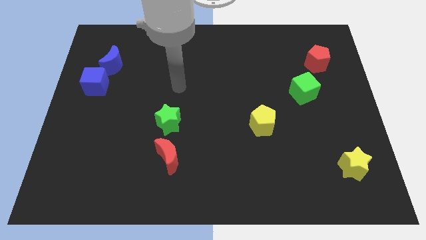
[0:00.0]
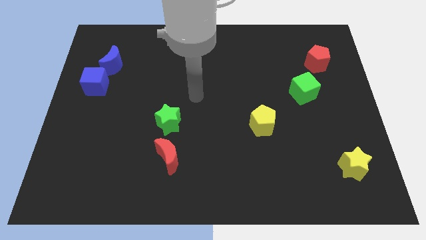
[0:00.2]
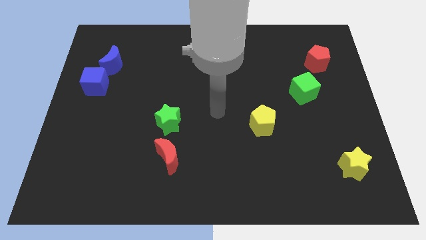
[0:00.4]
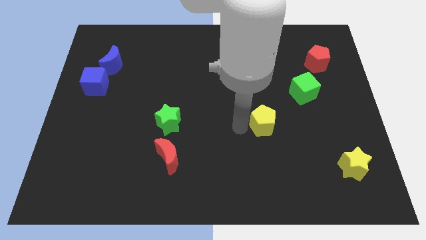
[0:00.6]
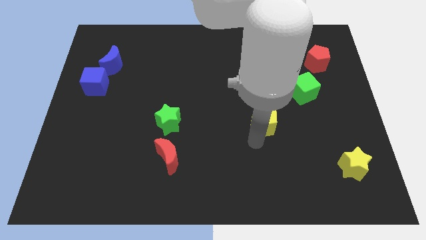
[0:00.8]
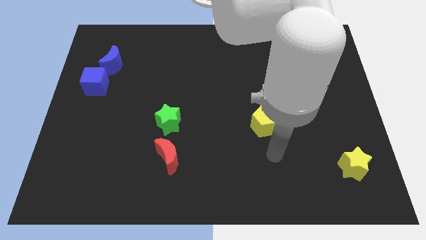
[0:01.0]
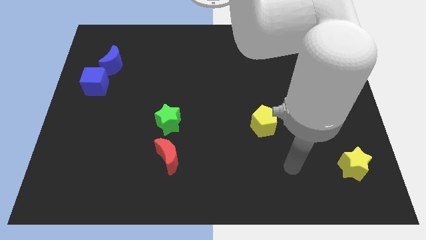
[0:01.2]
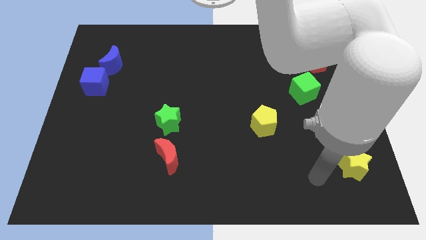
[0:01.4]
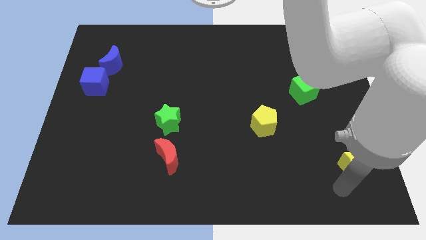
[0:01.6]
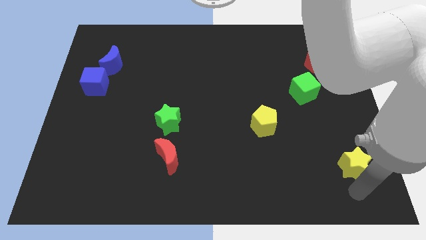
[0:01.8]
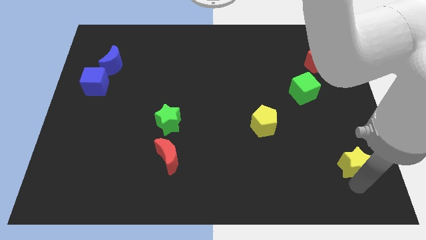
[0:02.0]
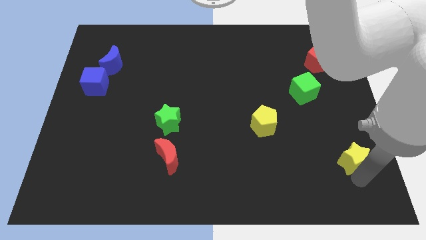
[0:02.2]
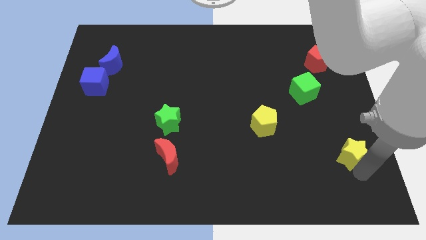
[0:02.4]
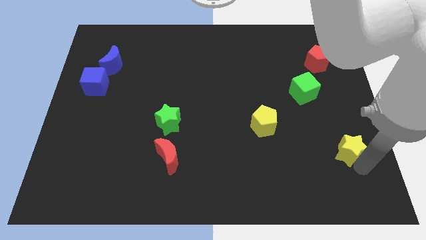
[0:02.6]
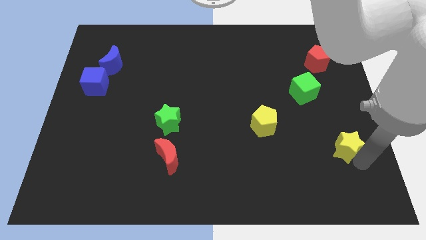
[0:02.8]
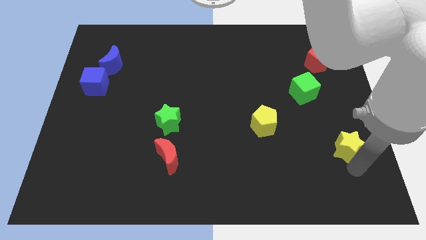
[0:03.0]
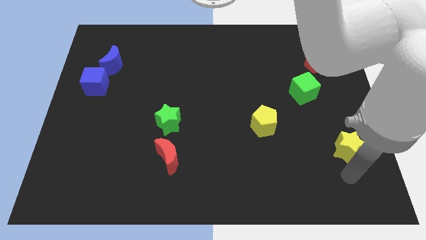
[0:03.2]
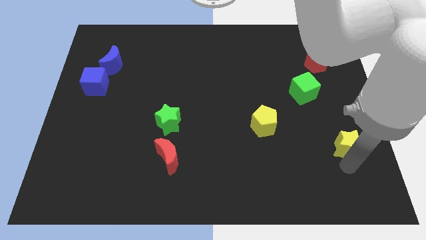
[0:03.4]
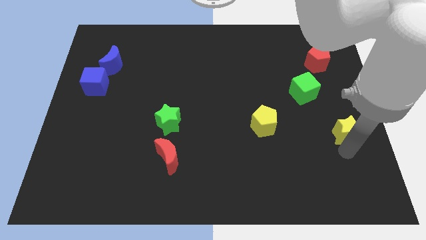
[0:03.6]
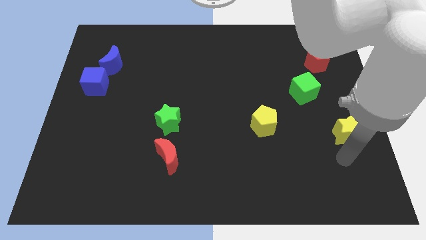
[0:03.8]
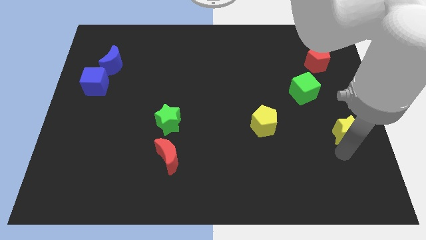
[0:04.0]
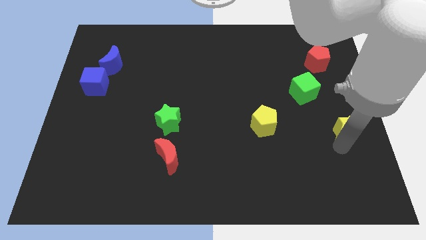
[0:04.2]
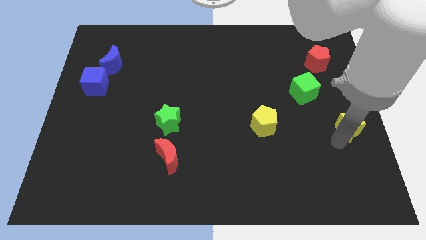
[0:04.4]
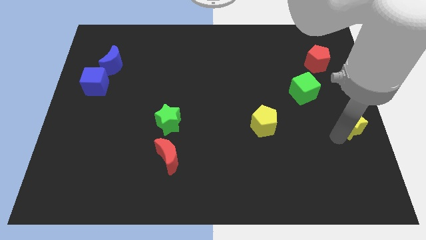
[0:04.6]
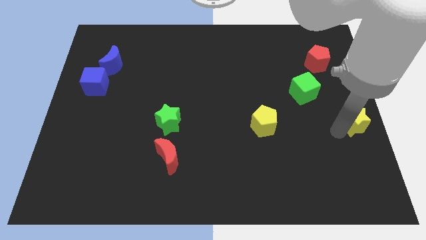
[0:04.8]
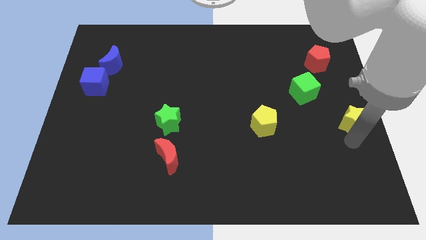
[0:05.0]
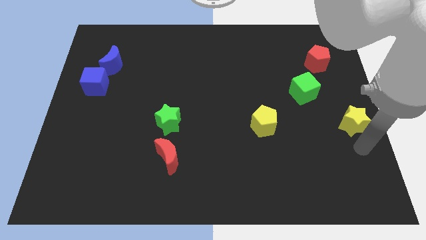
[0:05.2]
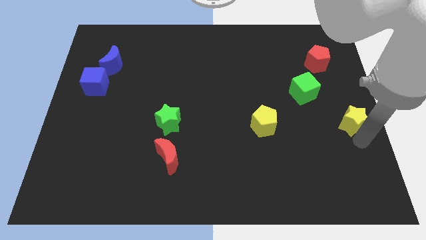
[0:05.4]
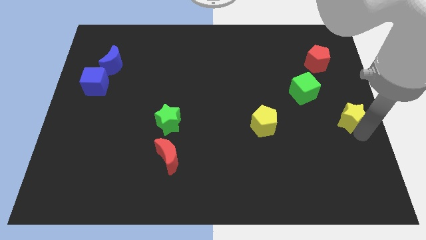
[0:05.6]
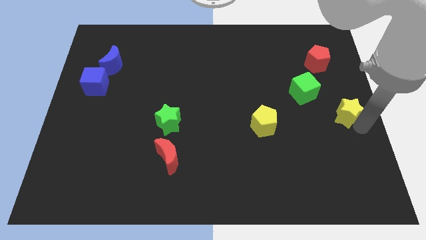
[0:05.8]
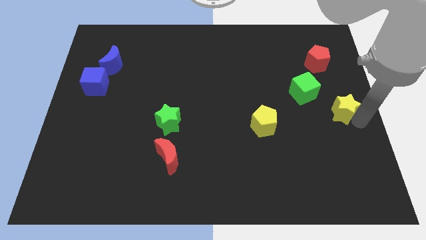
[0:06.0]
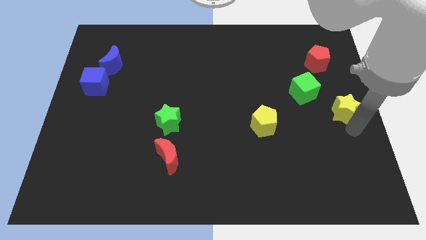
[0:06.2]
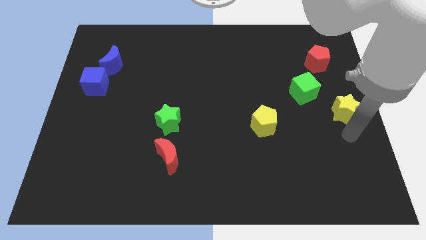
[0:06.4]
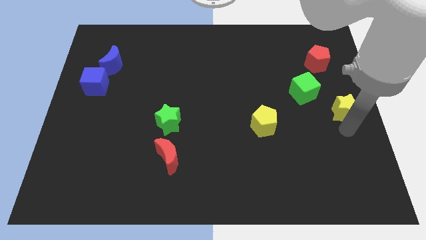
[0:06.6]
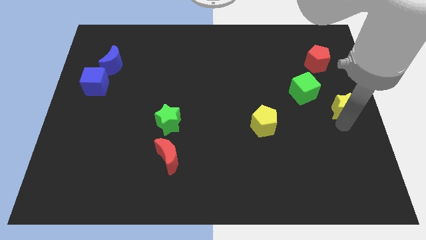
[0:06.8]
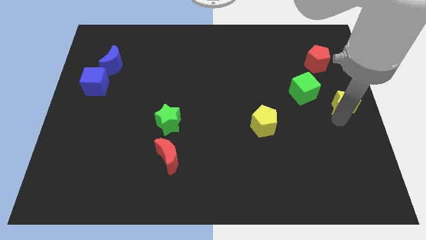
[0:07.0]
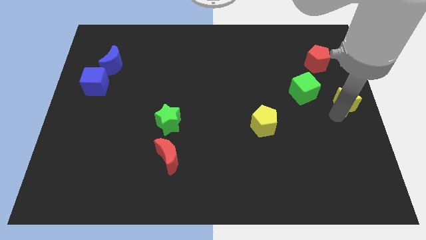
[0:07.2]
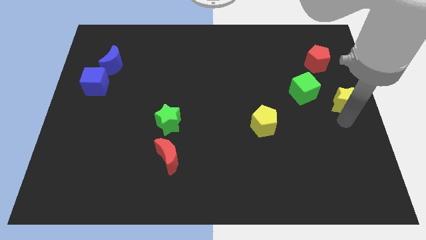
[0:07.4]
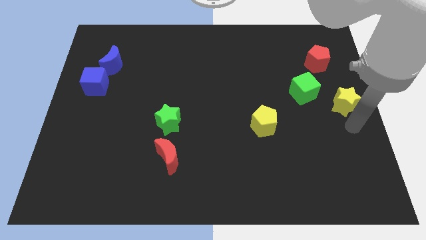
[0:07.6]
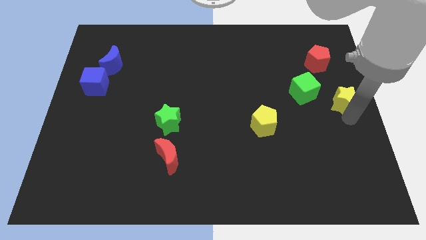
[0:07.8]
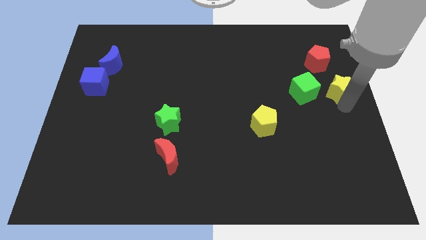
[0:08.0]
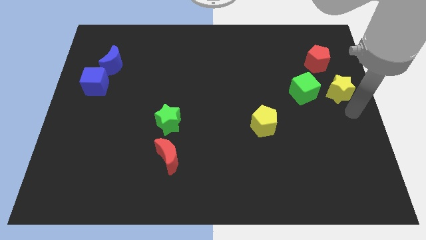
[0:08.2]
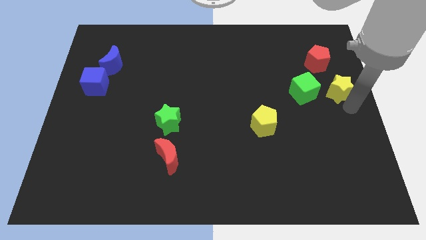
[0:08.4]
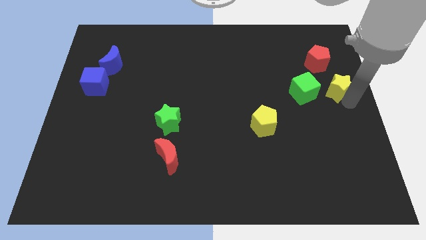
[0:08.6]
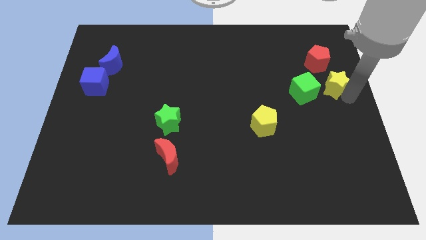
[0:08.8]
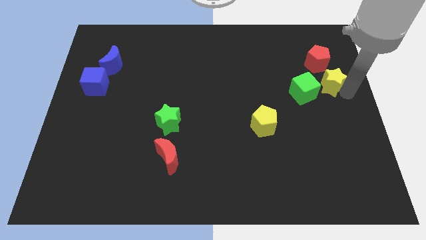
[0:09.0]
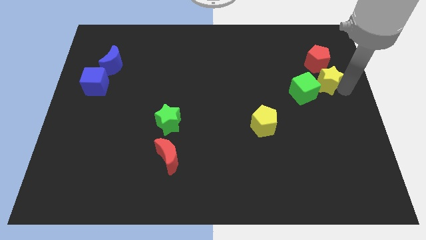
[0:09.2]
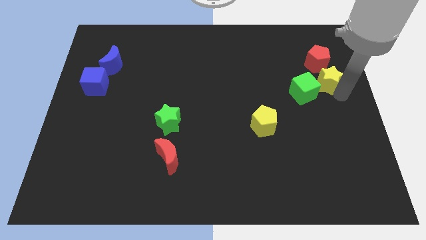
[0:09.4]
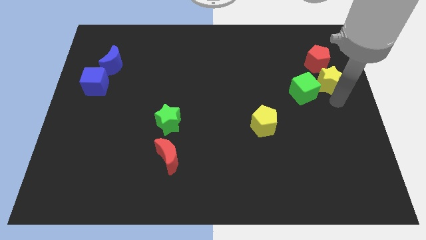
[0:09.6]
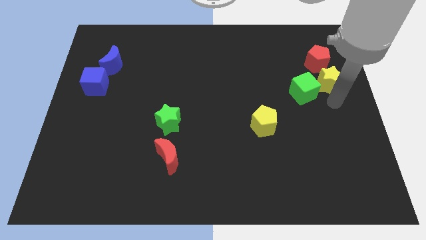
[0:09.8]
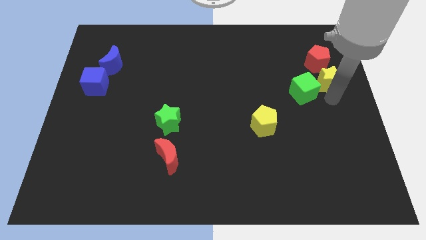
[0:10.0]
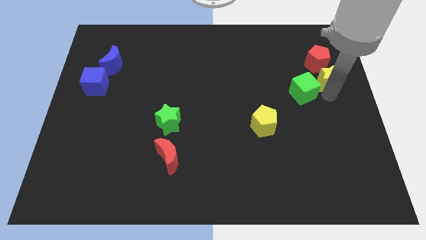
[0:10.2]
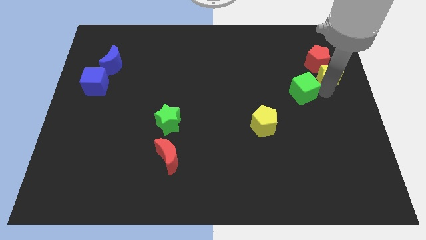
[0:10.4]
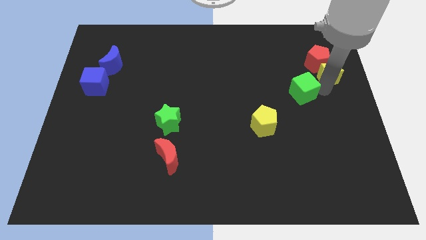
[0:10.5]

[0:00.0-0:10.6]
move the yellow star next to the red pentagon

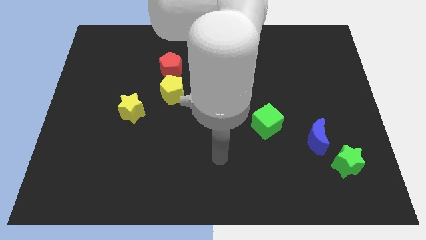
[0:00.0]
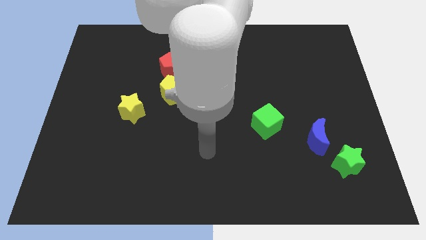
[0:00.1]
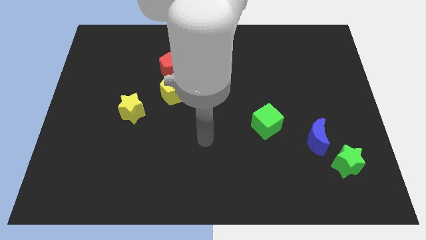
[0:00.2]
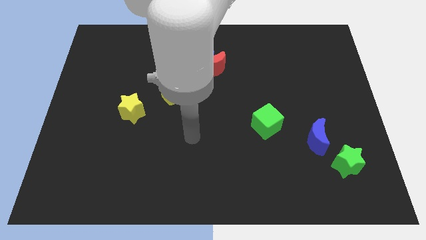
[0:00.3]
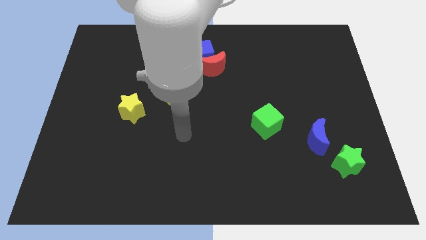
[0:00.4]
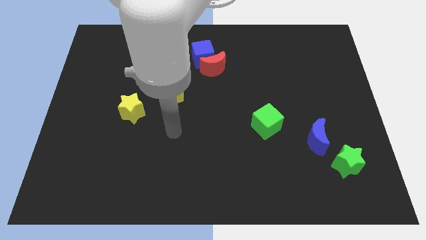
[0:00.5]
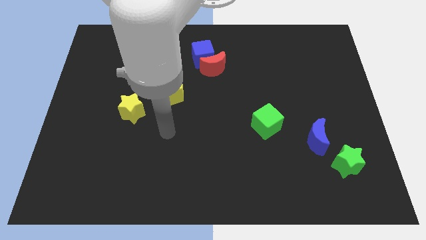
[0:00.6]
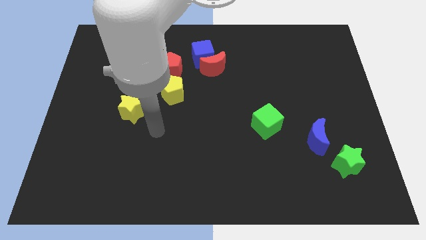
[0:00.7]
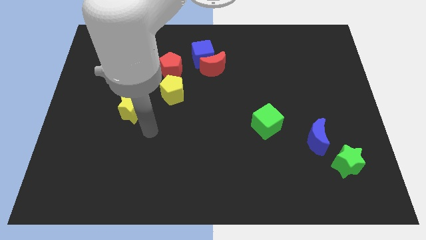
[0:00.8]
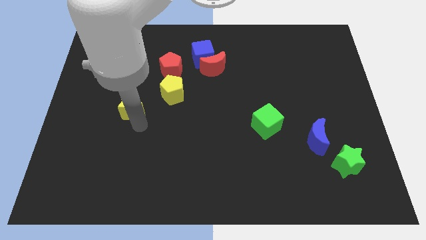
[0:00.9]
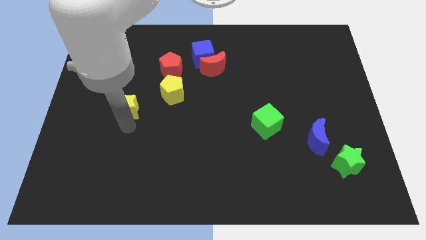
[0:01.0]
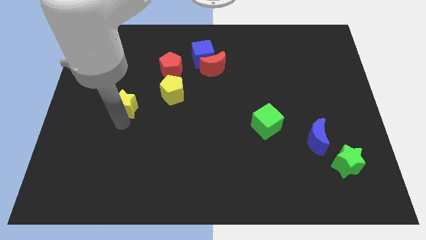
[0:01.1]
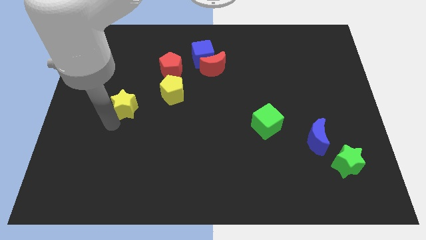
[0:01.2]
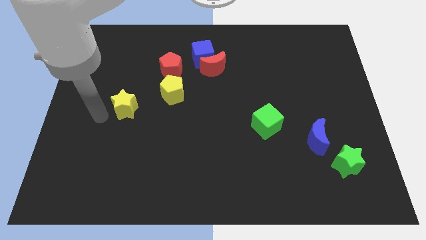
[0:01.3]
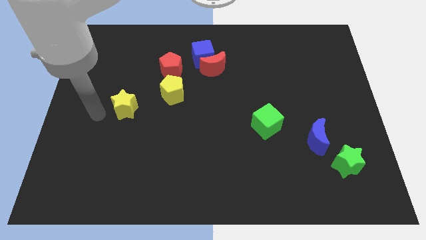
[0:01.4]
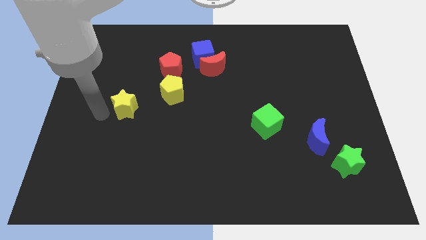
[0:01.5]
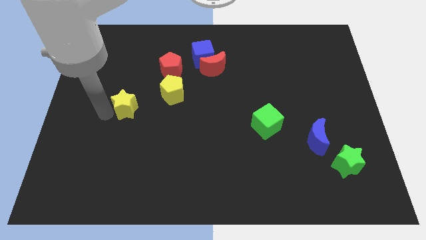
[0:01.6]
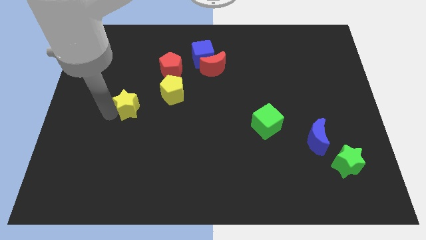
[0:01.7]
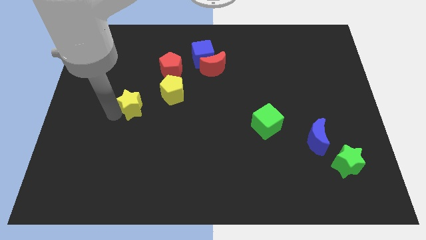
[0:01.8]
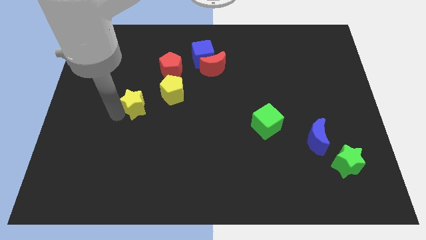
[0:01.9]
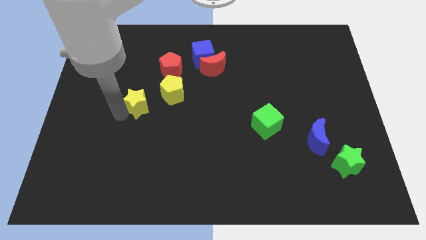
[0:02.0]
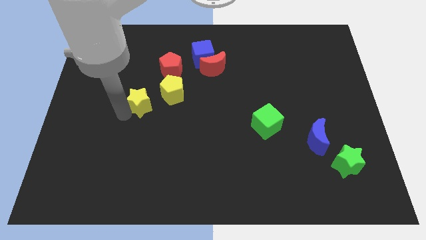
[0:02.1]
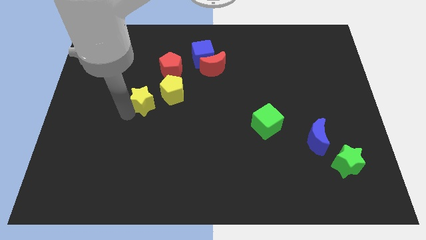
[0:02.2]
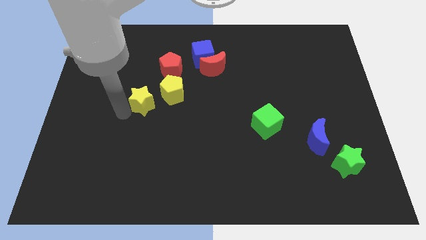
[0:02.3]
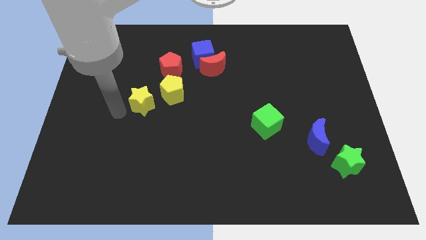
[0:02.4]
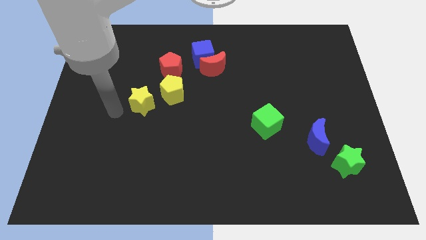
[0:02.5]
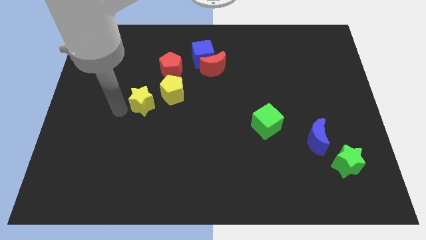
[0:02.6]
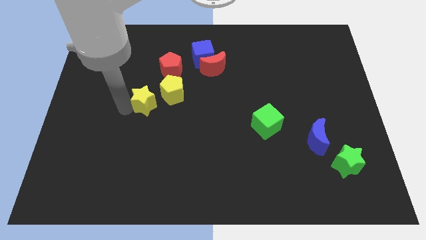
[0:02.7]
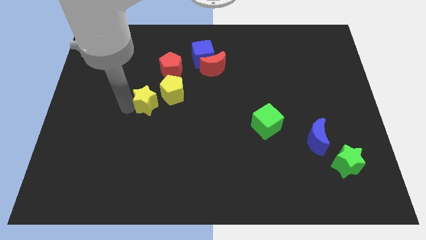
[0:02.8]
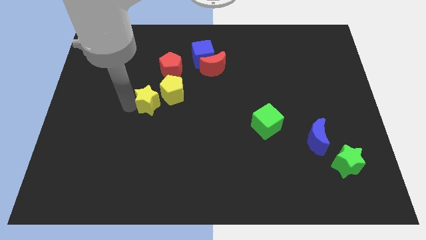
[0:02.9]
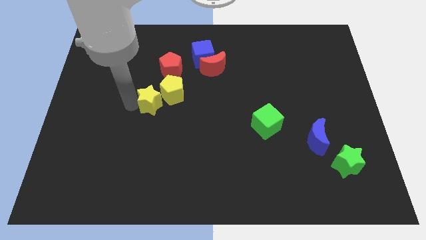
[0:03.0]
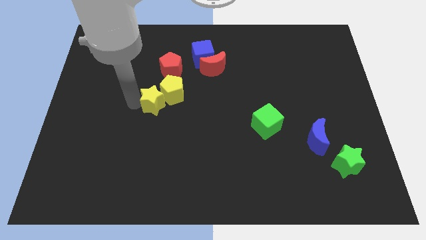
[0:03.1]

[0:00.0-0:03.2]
move the yellow star close to the yellow pentagon
